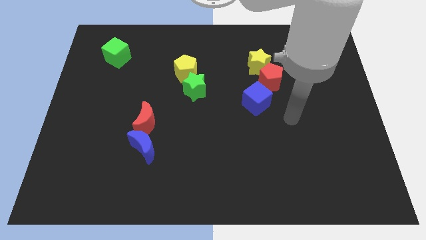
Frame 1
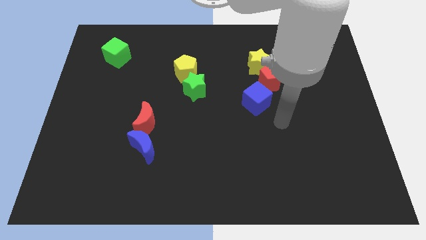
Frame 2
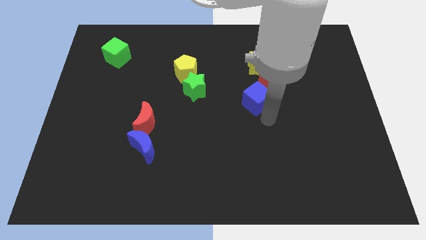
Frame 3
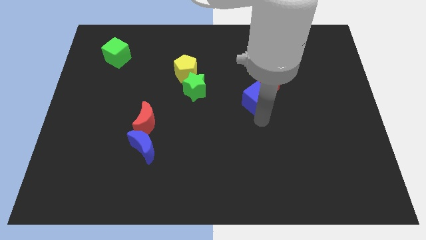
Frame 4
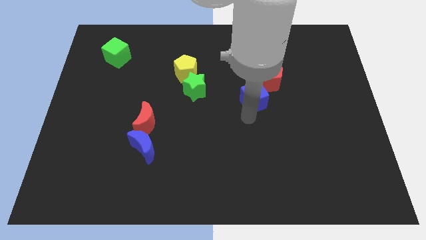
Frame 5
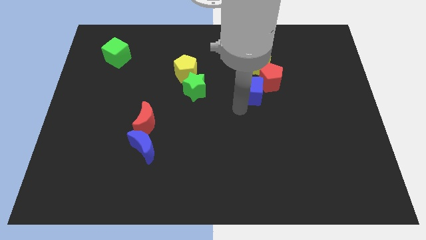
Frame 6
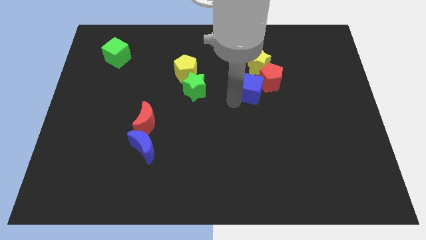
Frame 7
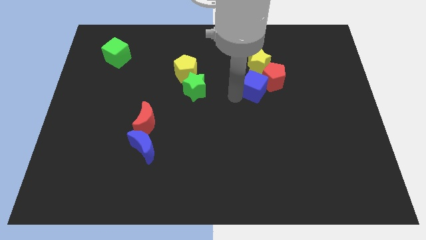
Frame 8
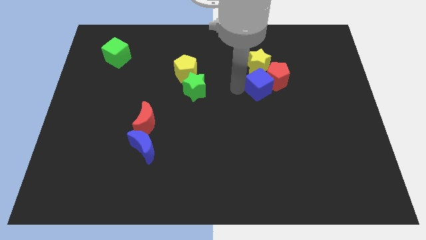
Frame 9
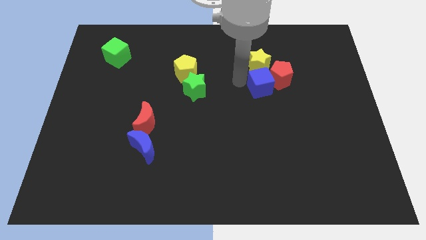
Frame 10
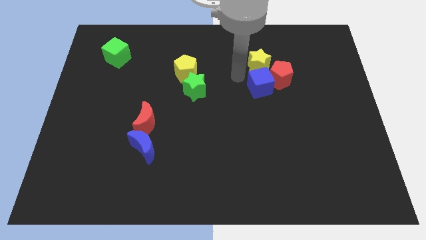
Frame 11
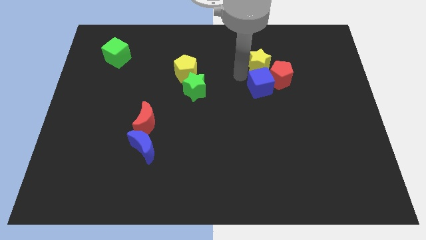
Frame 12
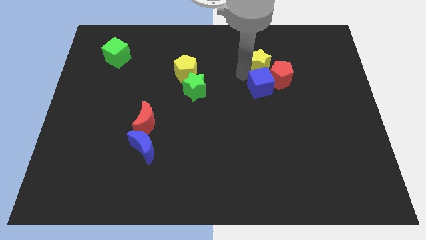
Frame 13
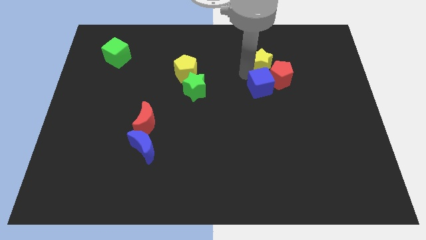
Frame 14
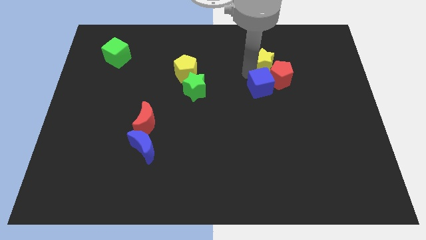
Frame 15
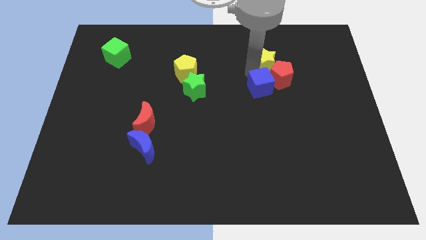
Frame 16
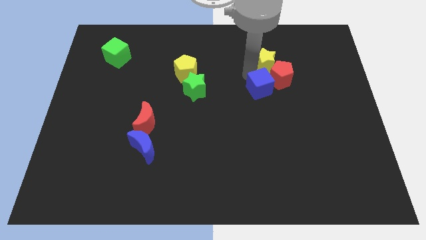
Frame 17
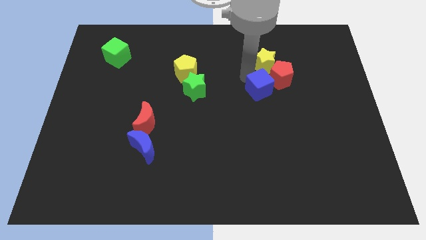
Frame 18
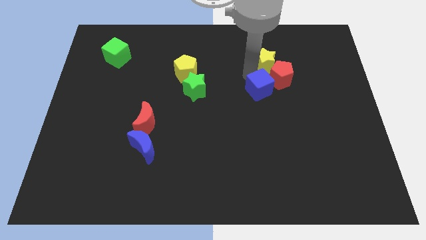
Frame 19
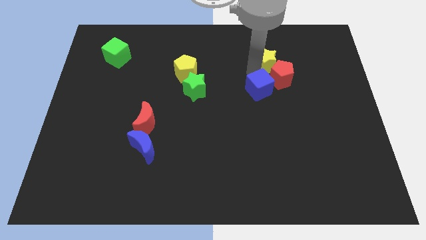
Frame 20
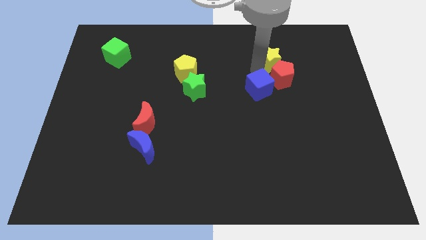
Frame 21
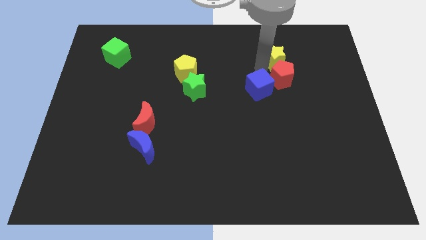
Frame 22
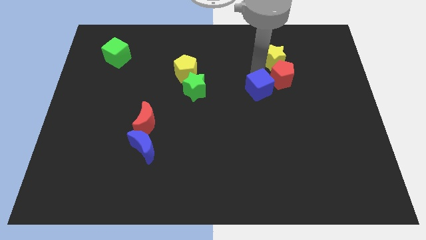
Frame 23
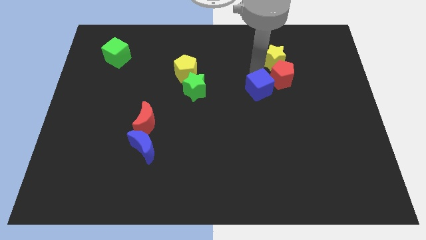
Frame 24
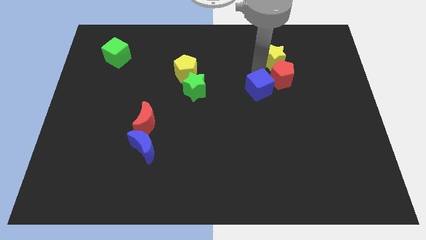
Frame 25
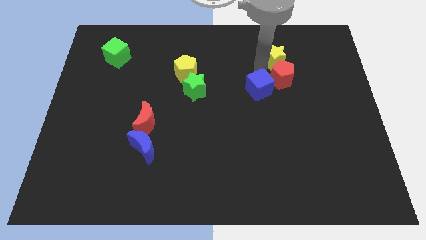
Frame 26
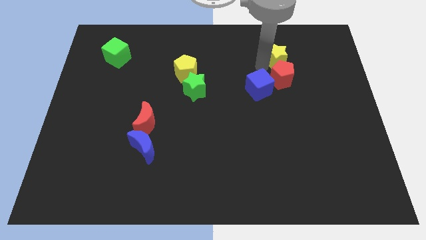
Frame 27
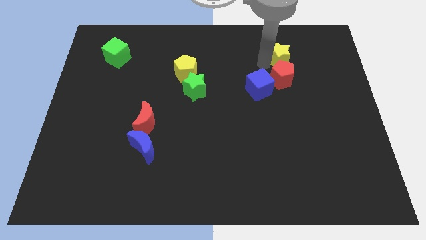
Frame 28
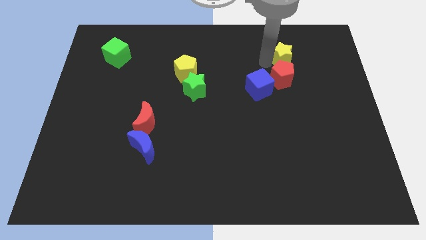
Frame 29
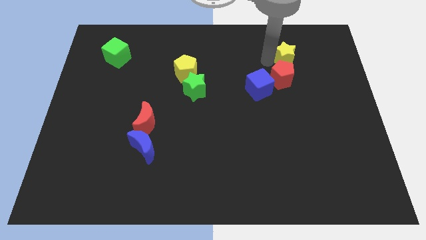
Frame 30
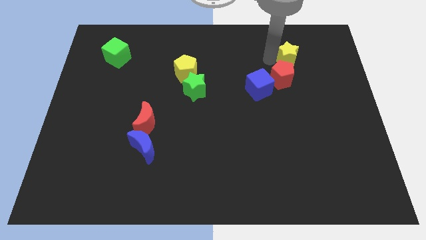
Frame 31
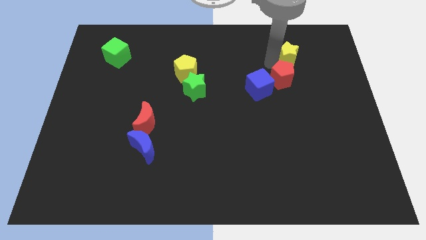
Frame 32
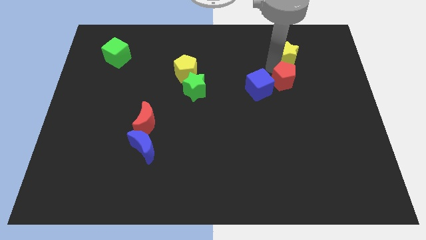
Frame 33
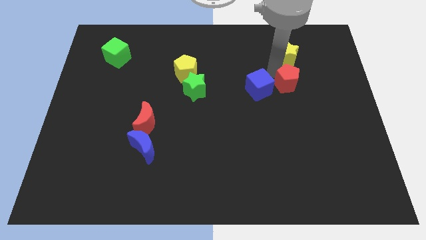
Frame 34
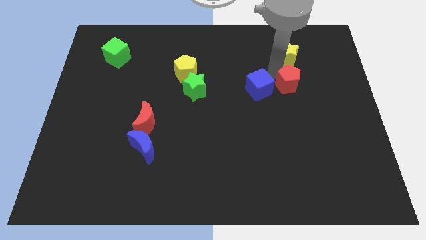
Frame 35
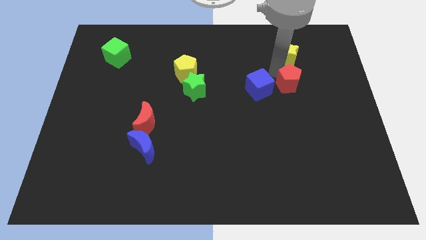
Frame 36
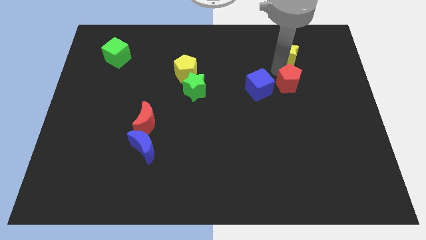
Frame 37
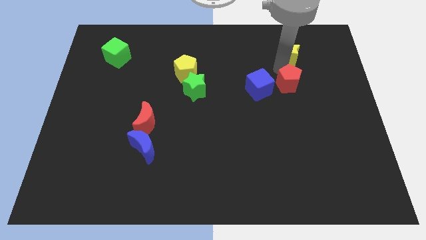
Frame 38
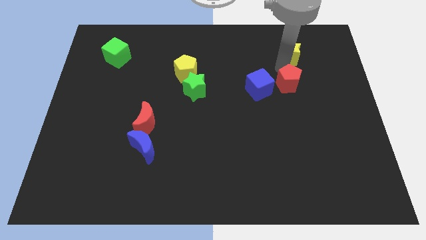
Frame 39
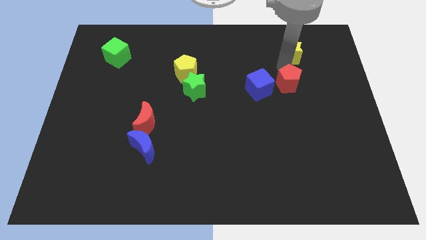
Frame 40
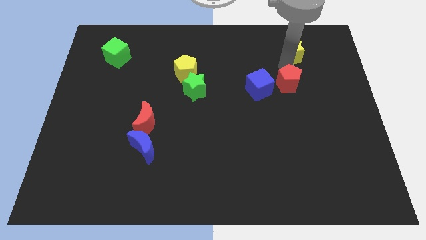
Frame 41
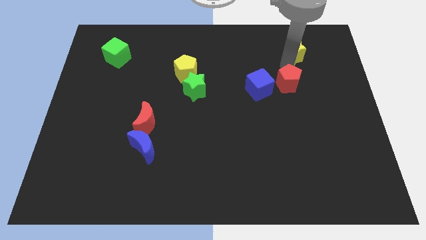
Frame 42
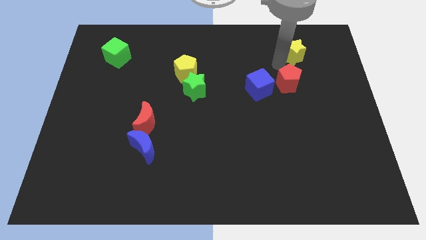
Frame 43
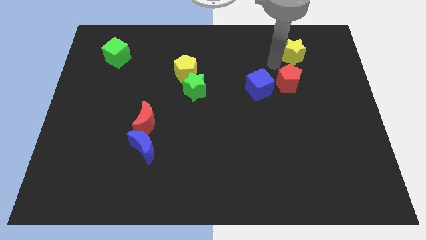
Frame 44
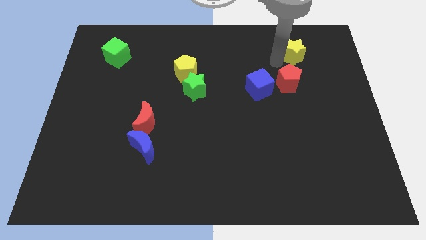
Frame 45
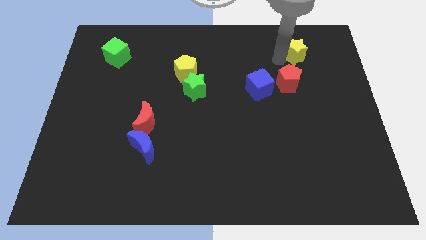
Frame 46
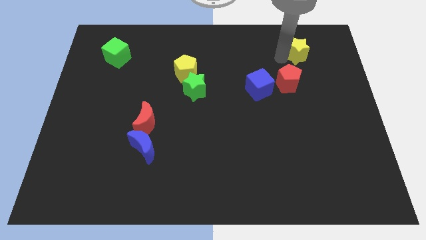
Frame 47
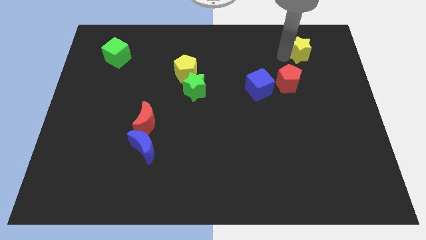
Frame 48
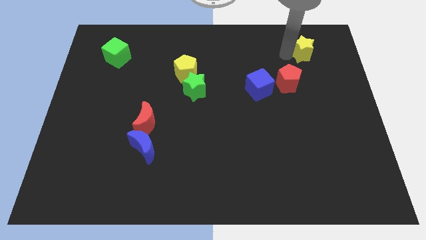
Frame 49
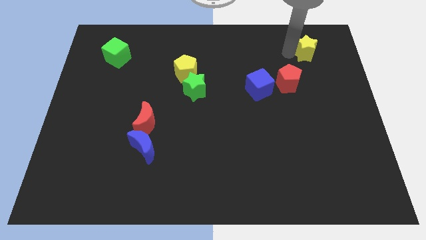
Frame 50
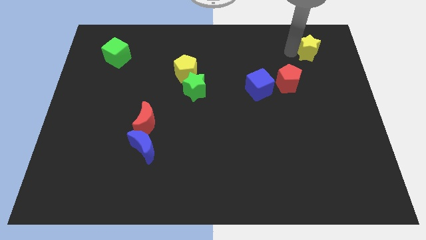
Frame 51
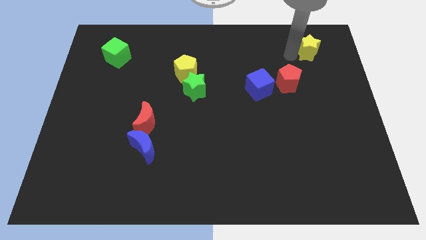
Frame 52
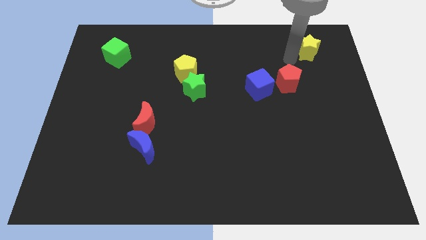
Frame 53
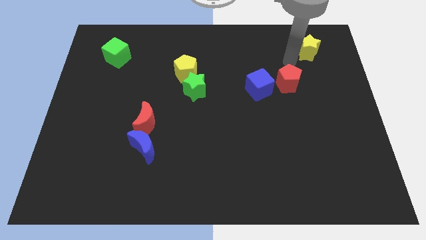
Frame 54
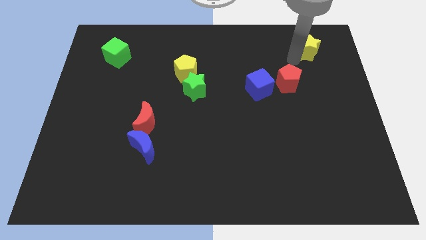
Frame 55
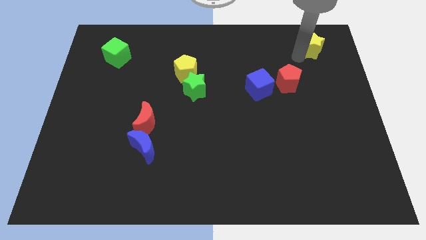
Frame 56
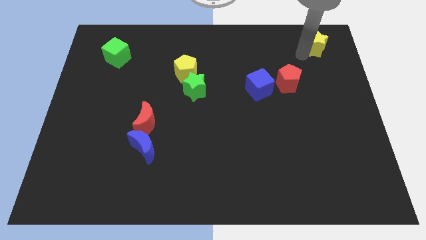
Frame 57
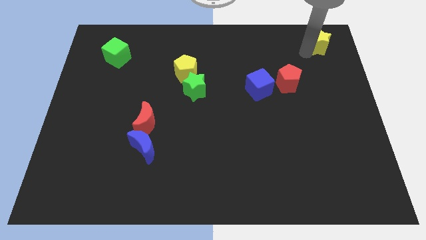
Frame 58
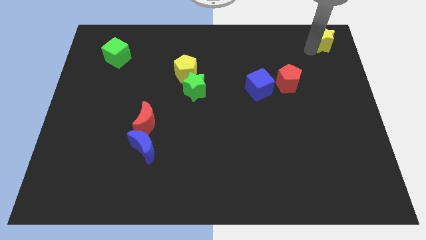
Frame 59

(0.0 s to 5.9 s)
push the yellow star to the top right

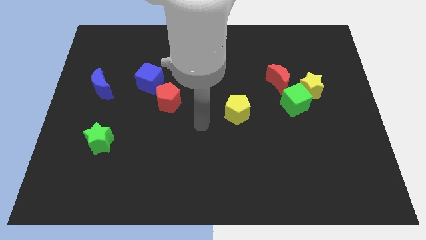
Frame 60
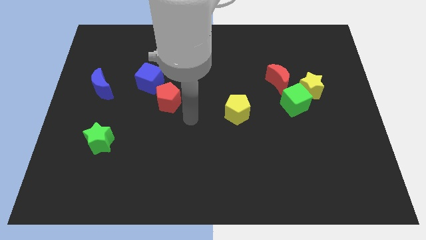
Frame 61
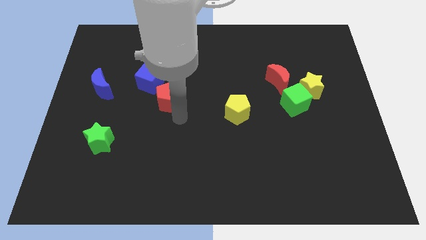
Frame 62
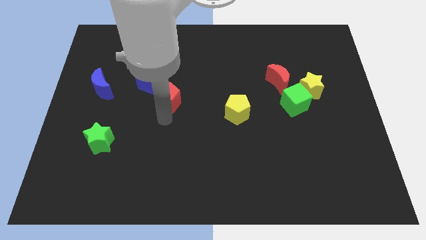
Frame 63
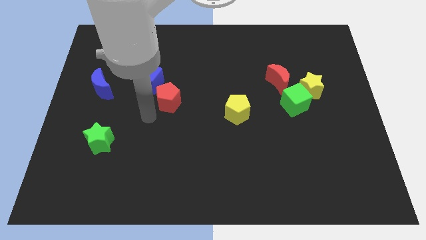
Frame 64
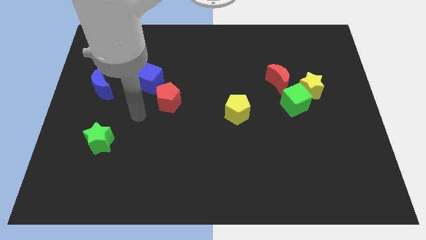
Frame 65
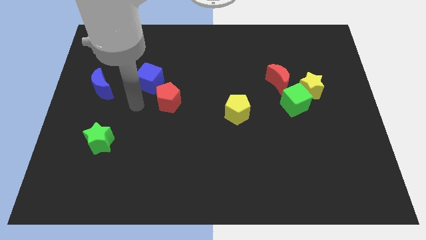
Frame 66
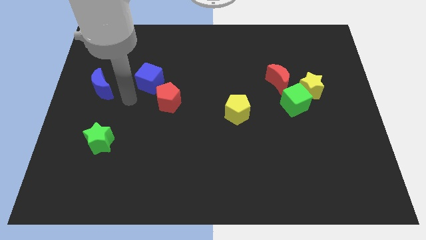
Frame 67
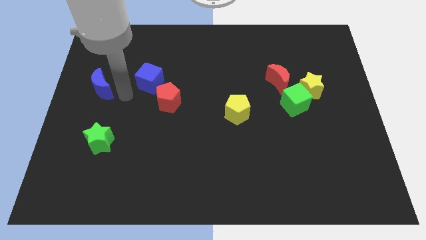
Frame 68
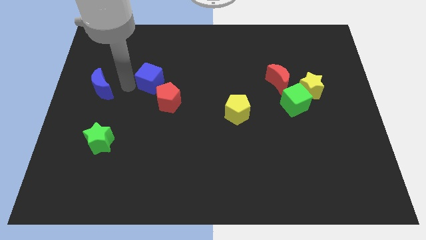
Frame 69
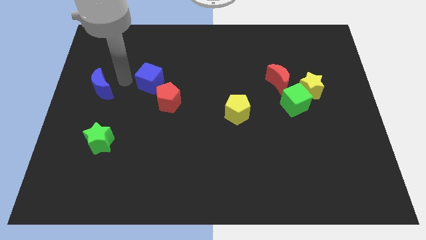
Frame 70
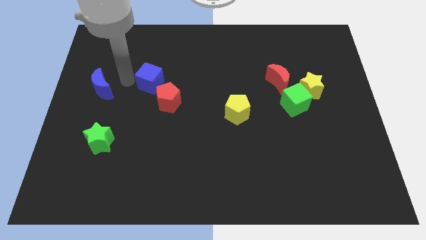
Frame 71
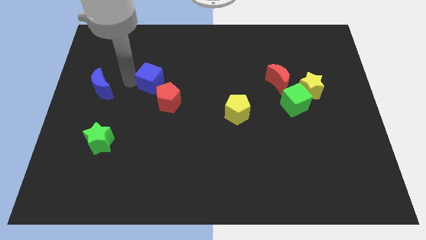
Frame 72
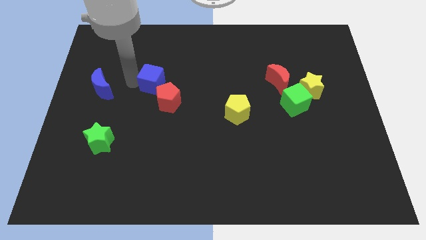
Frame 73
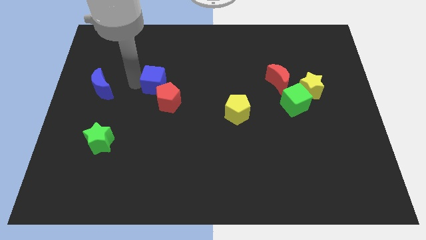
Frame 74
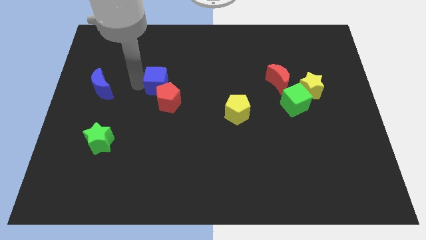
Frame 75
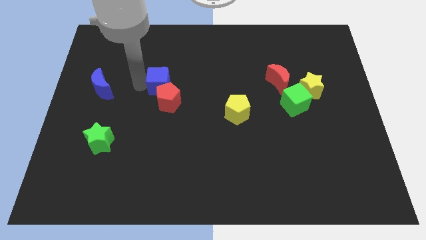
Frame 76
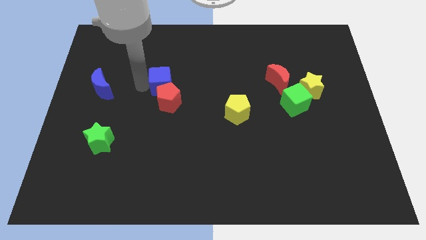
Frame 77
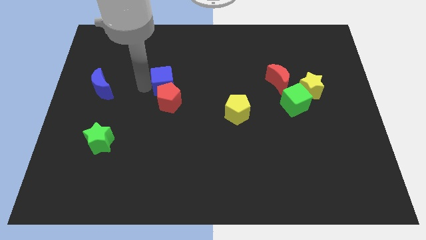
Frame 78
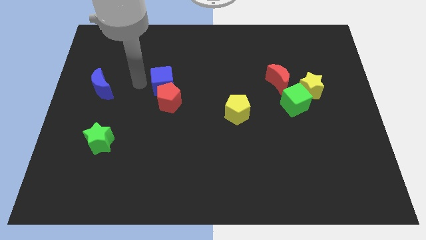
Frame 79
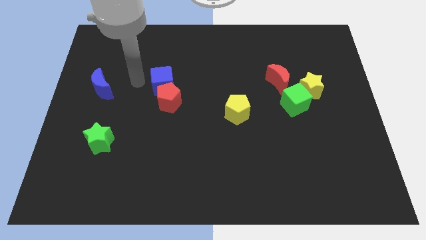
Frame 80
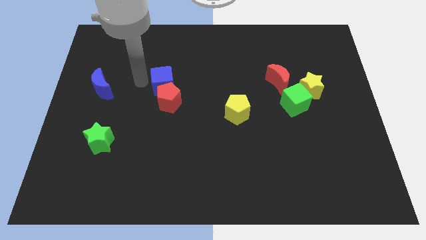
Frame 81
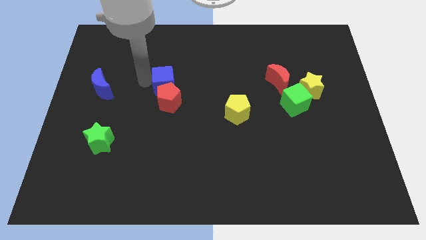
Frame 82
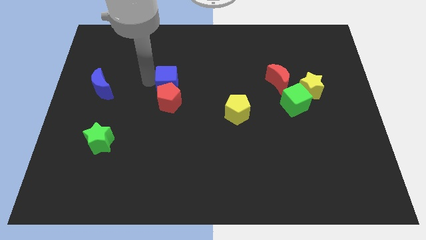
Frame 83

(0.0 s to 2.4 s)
move the blue cube to the middle
